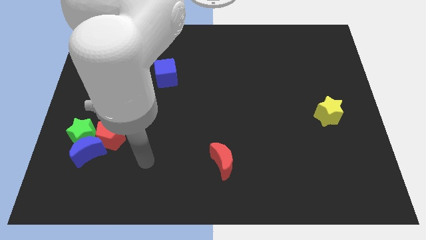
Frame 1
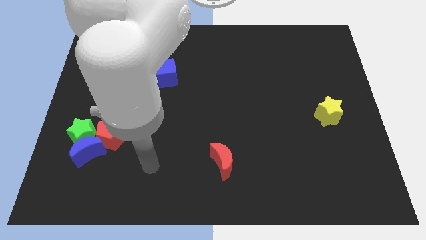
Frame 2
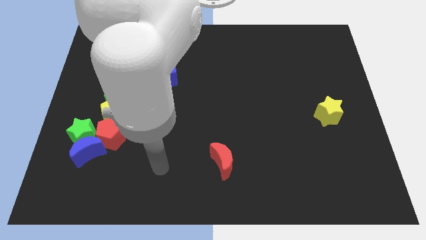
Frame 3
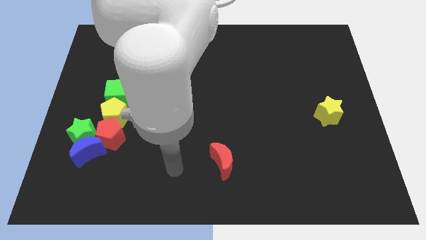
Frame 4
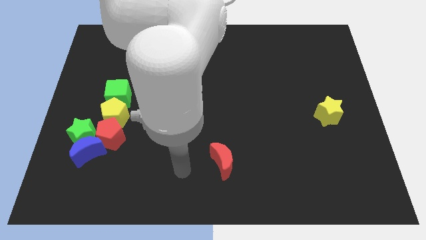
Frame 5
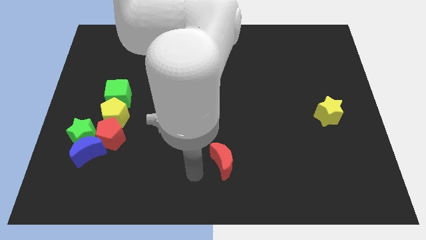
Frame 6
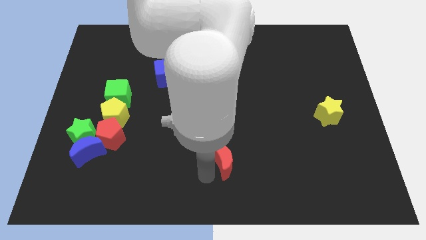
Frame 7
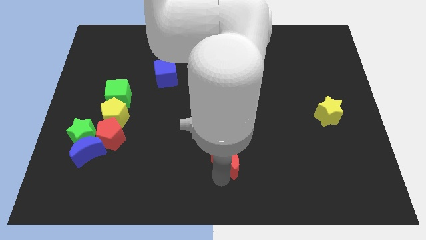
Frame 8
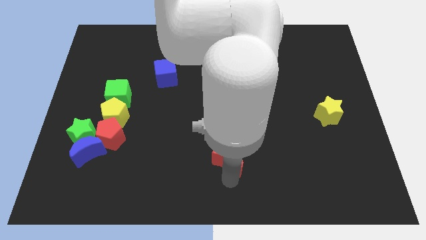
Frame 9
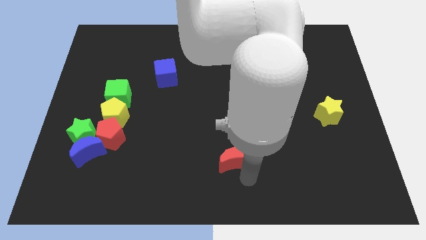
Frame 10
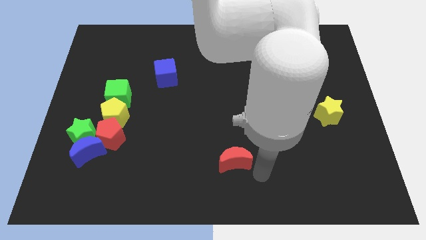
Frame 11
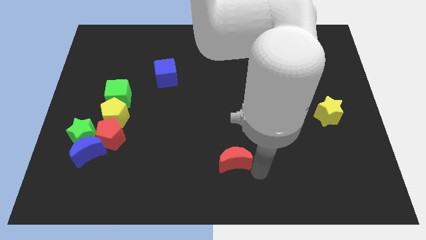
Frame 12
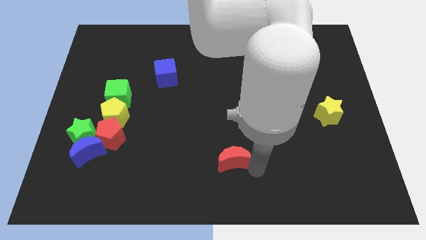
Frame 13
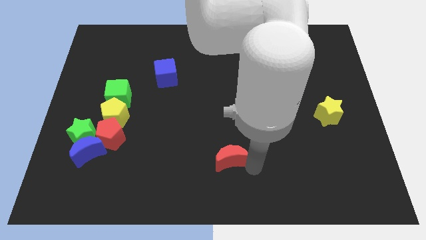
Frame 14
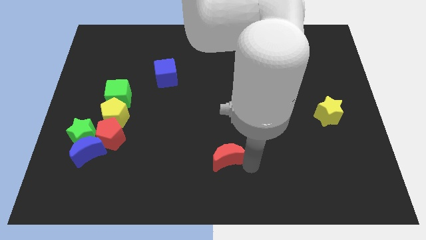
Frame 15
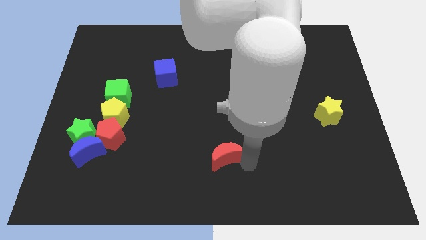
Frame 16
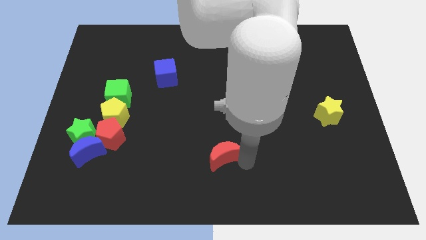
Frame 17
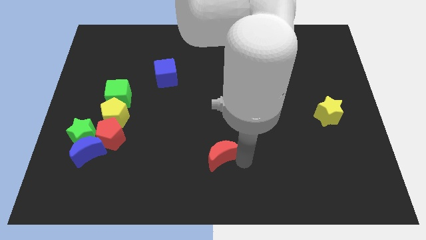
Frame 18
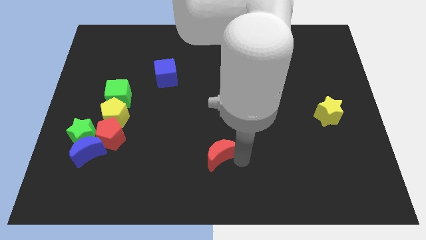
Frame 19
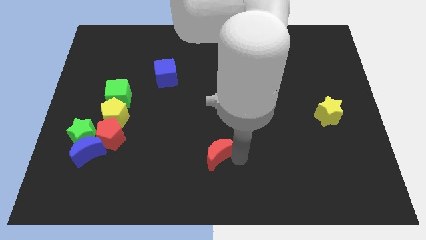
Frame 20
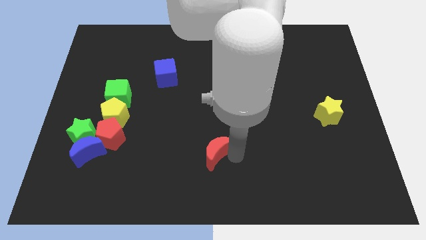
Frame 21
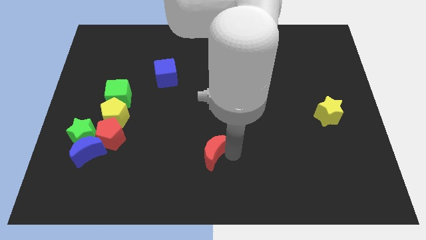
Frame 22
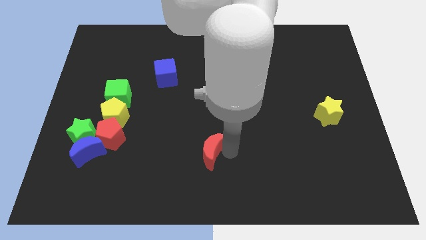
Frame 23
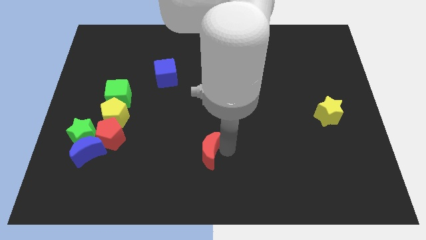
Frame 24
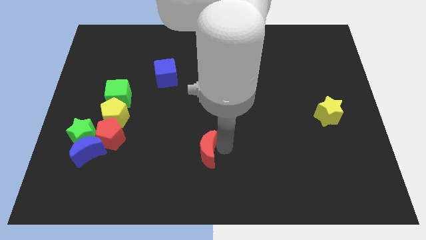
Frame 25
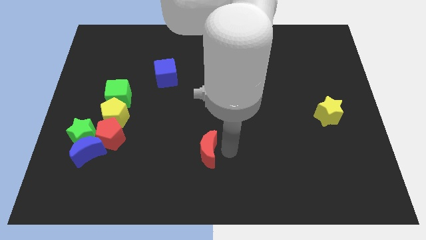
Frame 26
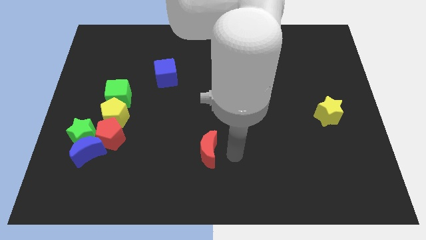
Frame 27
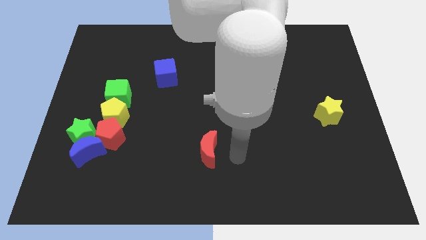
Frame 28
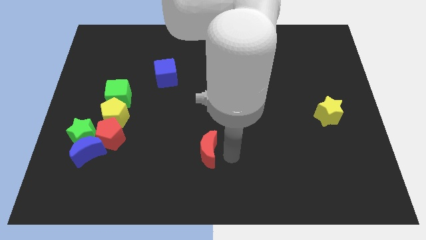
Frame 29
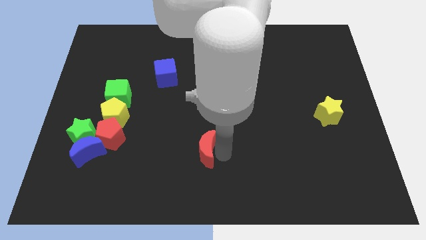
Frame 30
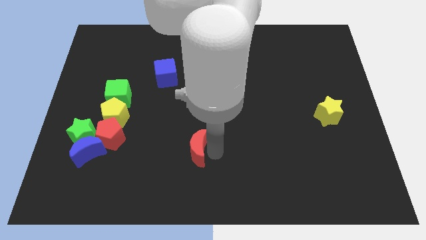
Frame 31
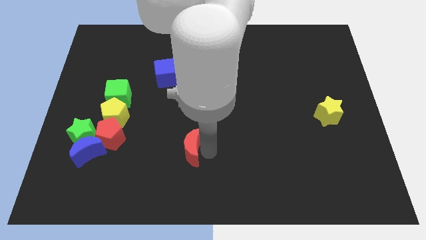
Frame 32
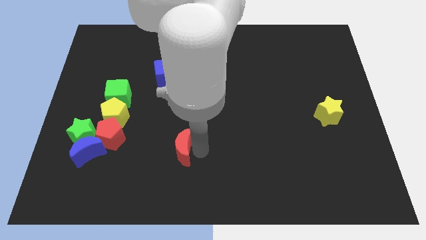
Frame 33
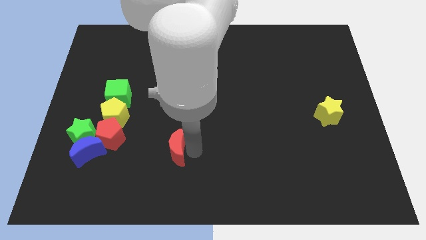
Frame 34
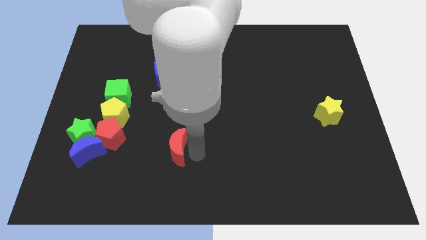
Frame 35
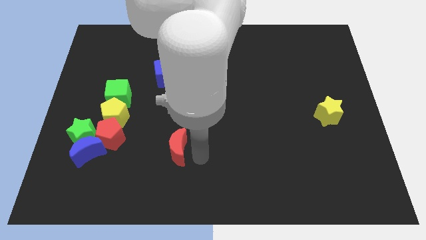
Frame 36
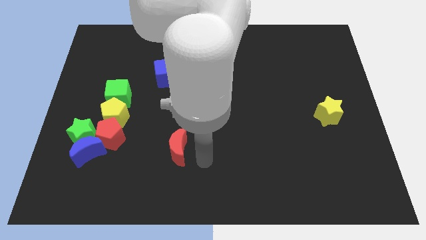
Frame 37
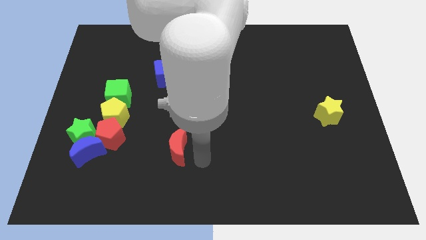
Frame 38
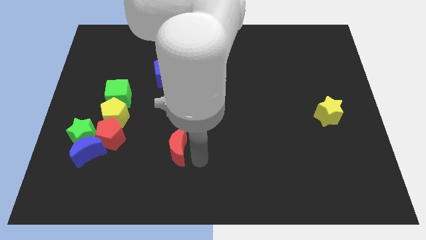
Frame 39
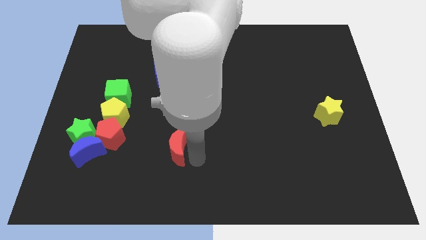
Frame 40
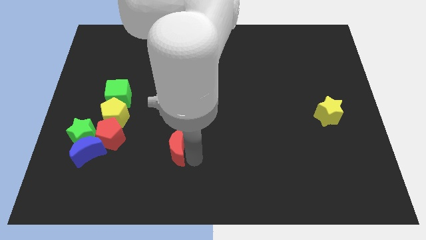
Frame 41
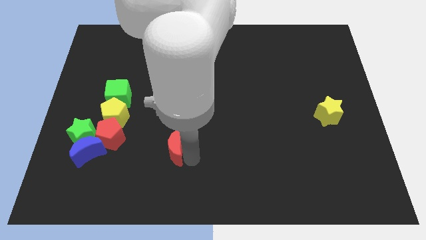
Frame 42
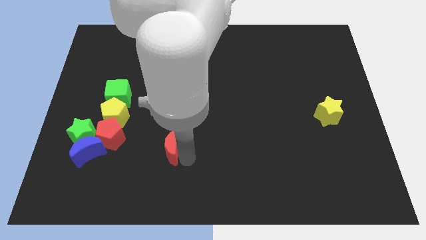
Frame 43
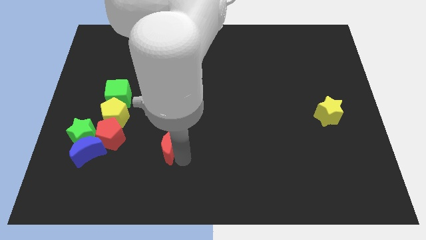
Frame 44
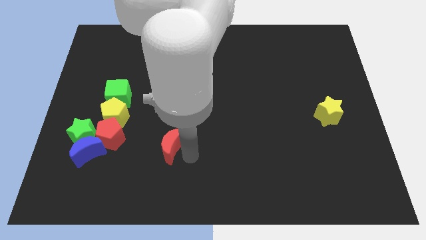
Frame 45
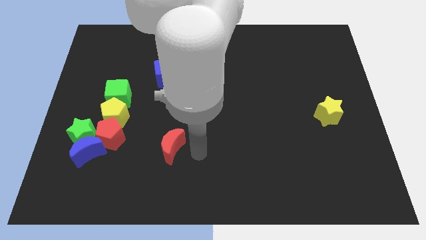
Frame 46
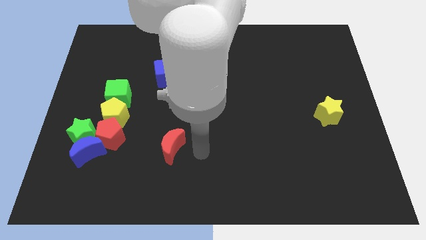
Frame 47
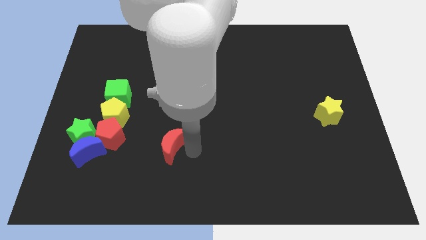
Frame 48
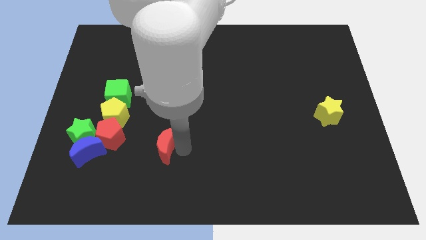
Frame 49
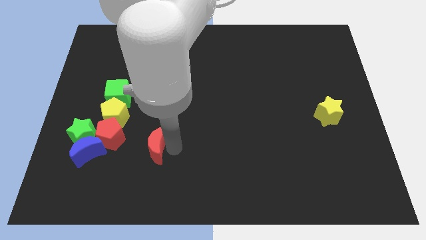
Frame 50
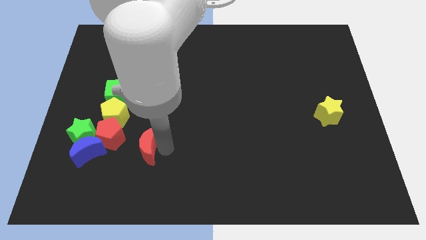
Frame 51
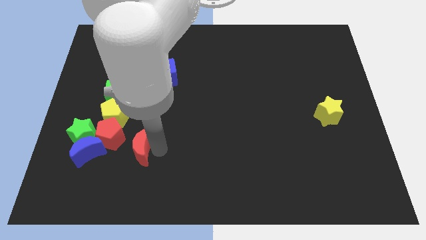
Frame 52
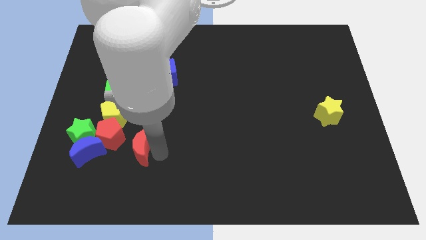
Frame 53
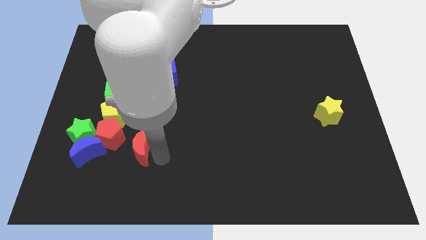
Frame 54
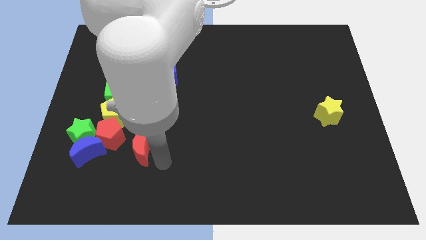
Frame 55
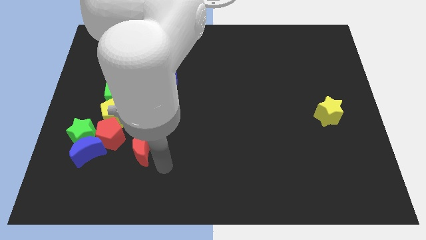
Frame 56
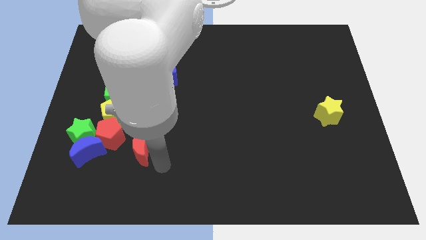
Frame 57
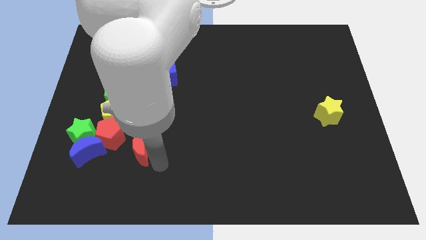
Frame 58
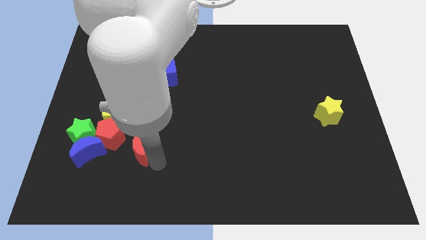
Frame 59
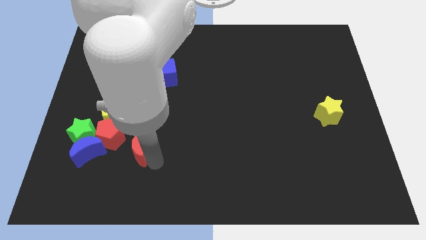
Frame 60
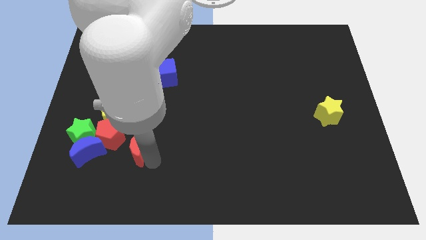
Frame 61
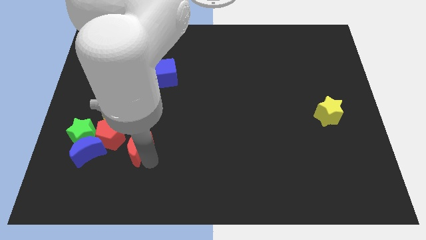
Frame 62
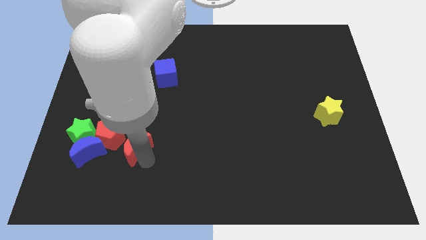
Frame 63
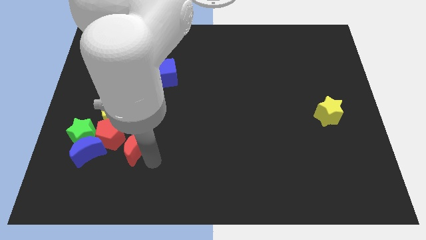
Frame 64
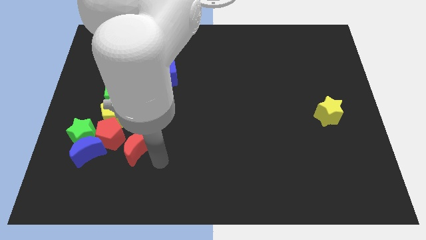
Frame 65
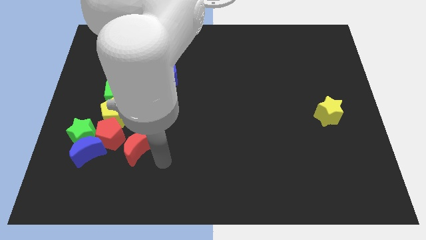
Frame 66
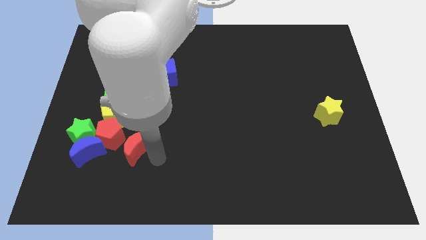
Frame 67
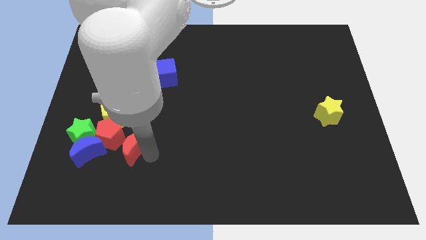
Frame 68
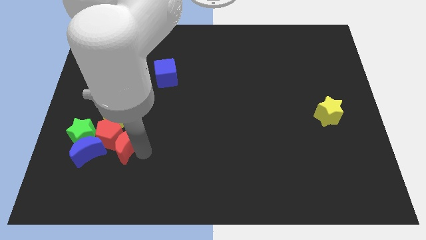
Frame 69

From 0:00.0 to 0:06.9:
slide the red moon to the red pentagon

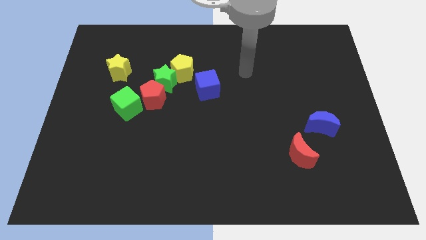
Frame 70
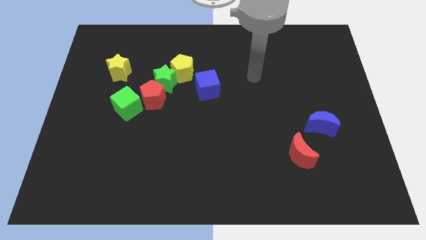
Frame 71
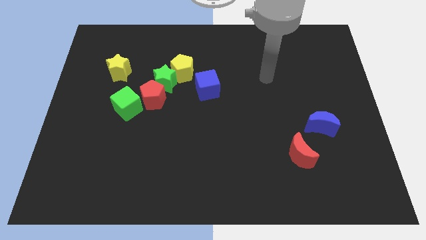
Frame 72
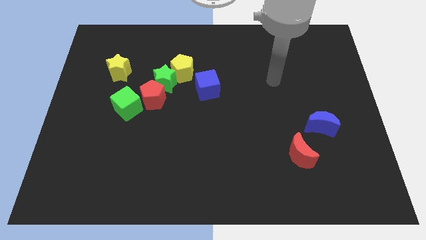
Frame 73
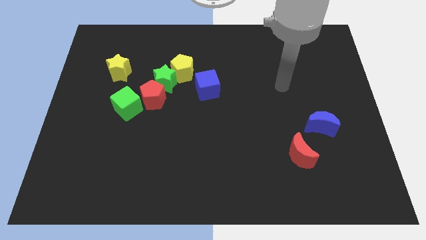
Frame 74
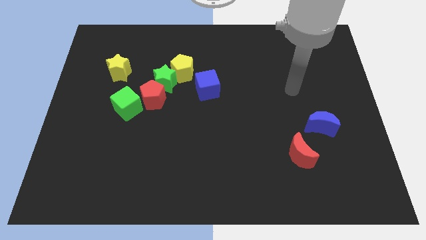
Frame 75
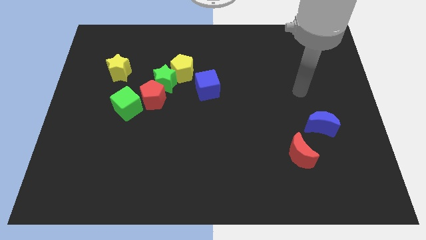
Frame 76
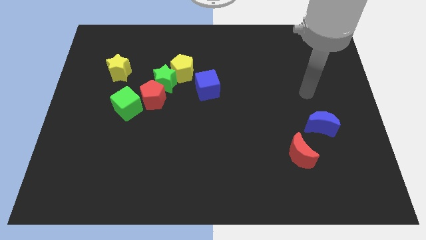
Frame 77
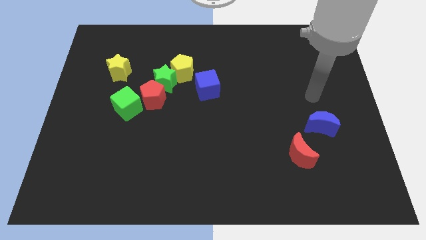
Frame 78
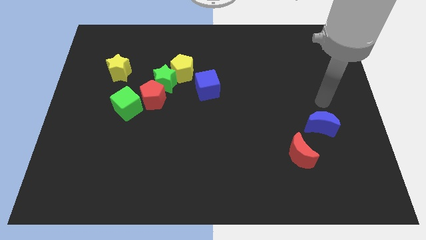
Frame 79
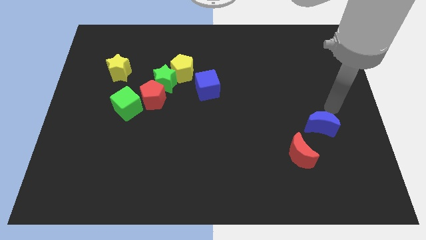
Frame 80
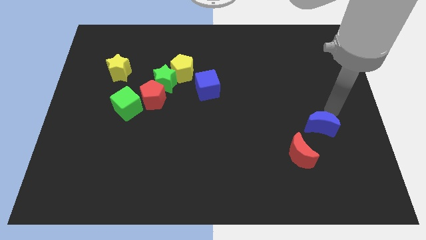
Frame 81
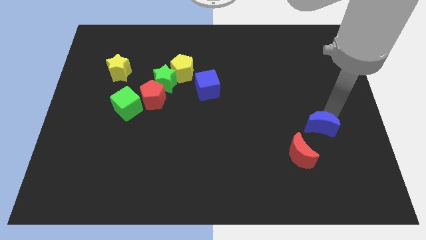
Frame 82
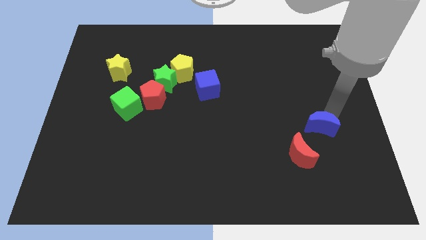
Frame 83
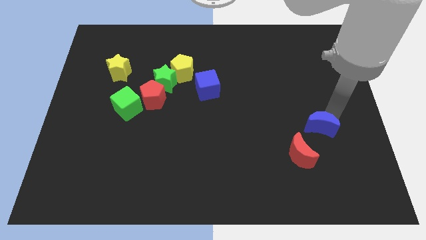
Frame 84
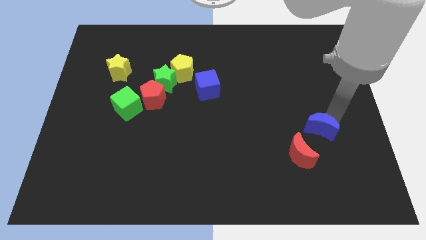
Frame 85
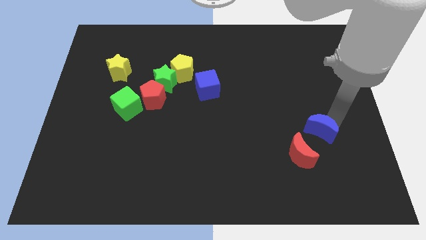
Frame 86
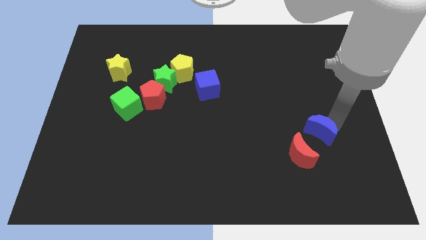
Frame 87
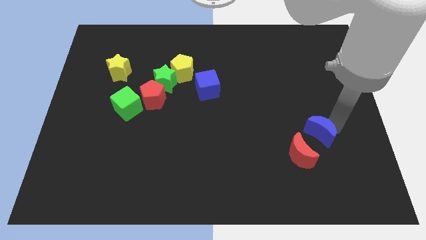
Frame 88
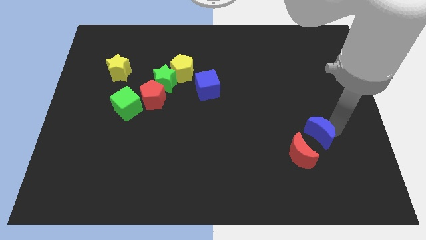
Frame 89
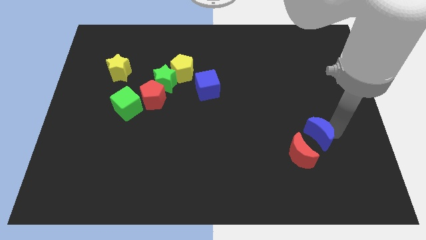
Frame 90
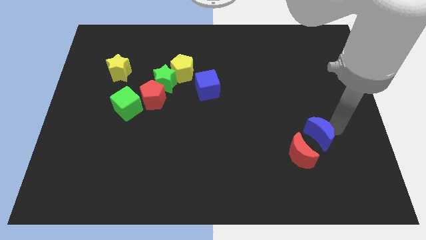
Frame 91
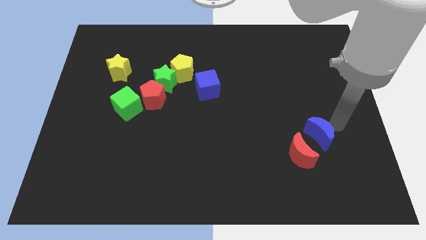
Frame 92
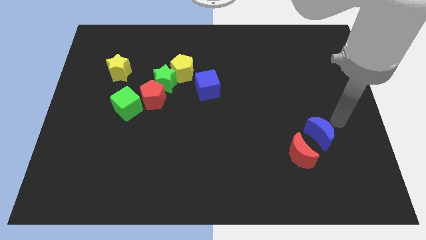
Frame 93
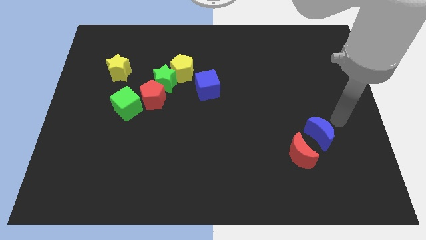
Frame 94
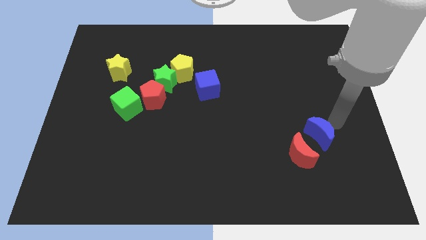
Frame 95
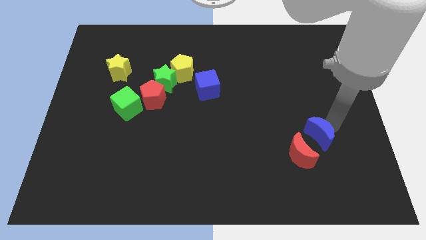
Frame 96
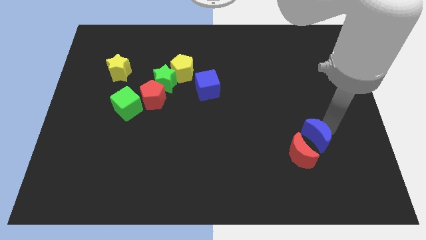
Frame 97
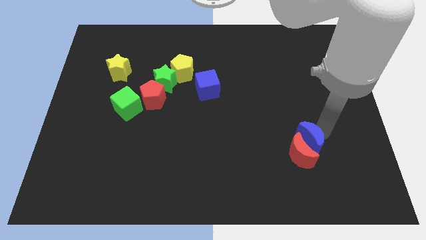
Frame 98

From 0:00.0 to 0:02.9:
put the blue moon close to the red moon
